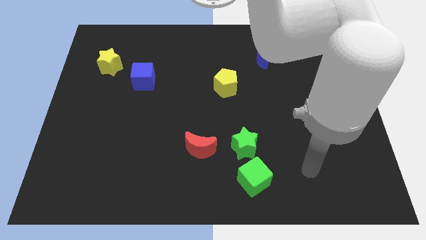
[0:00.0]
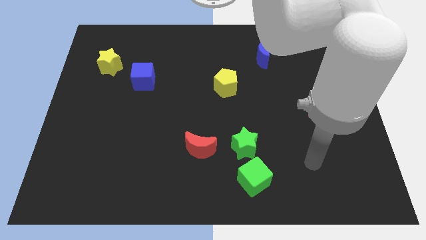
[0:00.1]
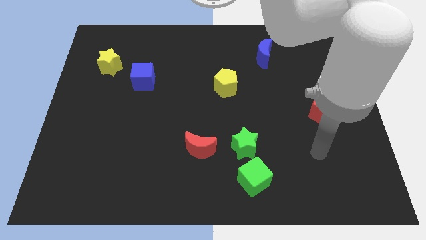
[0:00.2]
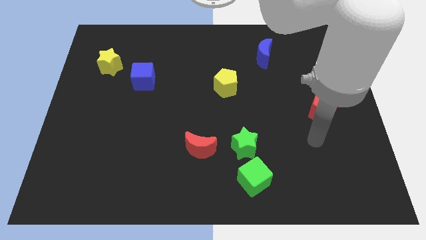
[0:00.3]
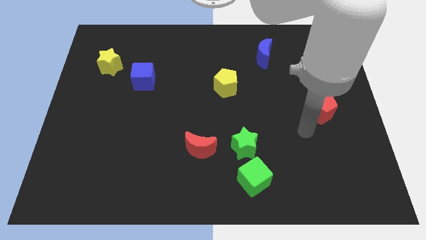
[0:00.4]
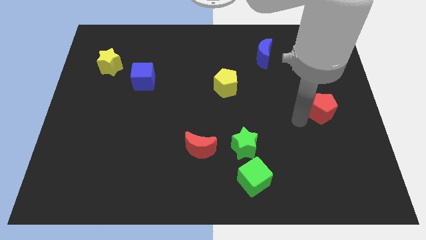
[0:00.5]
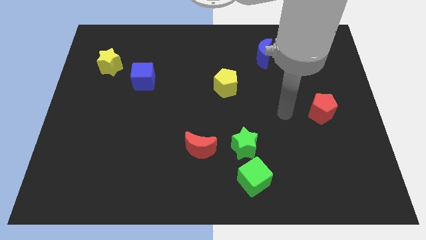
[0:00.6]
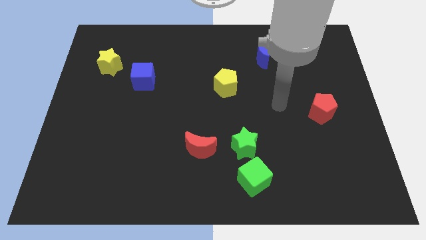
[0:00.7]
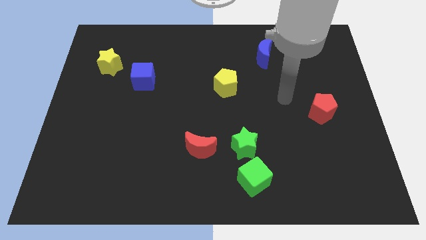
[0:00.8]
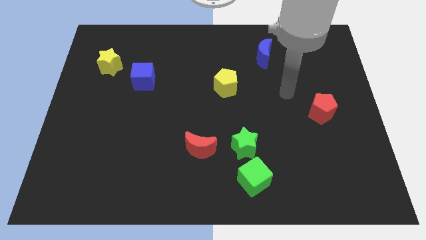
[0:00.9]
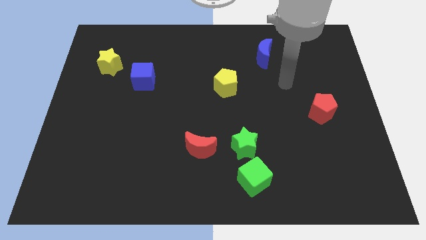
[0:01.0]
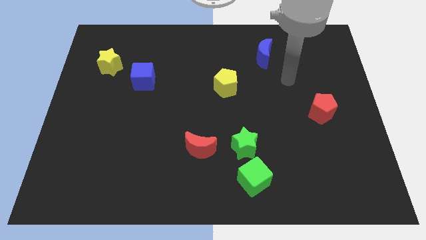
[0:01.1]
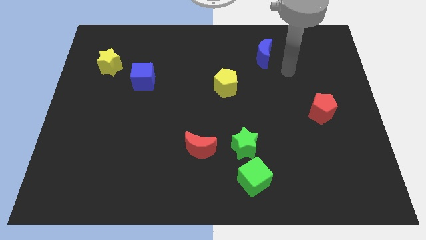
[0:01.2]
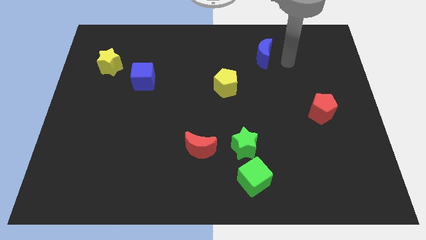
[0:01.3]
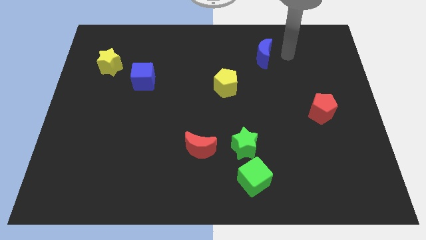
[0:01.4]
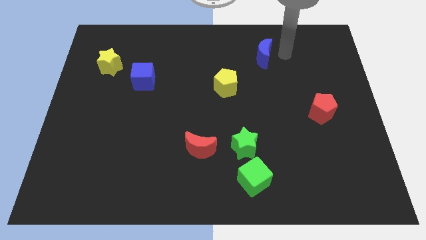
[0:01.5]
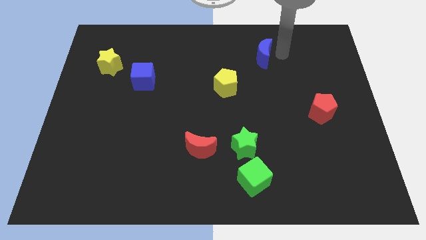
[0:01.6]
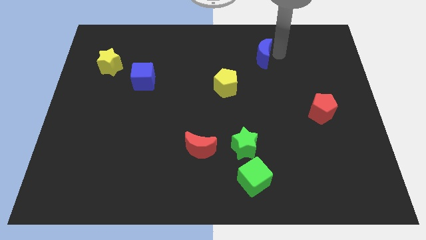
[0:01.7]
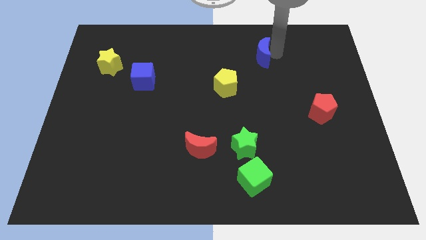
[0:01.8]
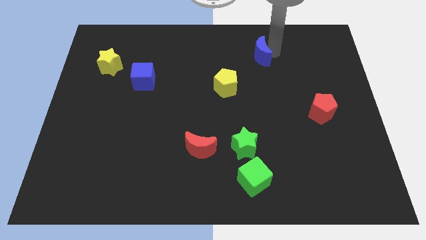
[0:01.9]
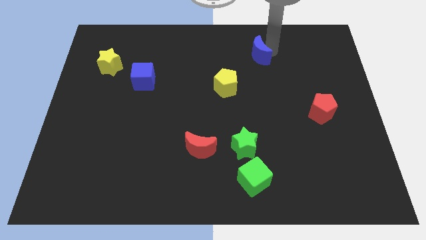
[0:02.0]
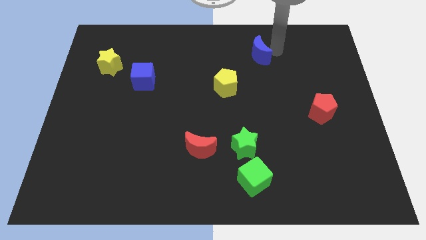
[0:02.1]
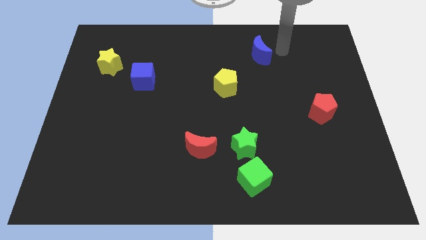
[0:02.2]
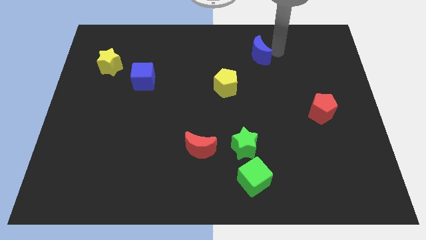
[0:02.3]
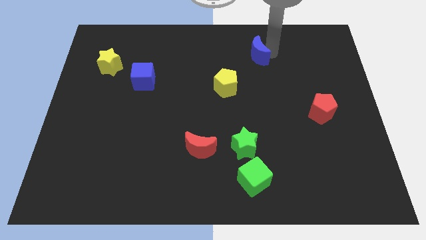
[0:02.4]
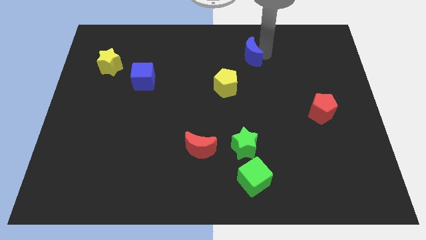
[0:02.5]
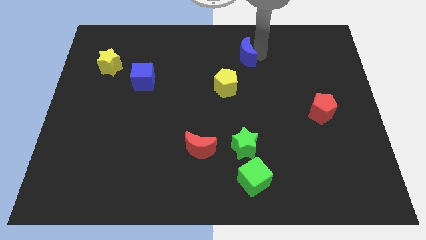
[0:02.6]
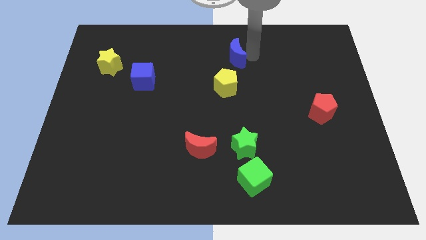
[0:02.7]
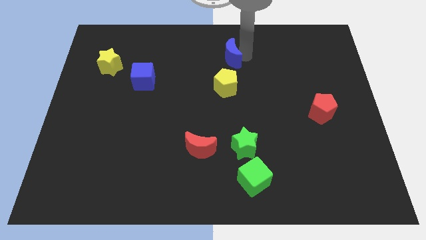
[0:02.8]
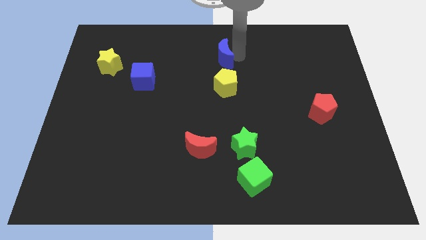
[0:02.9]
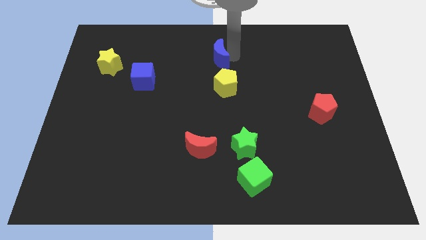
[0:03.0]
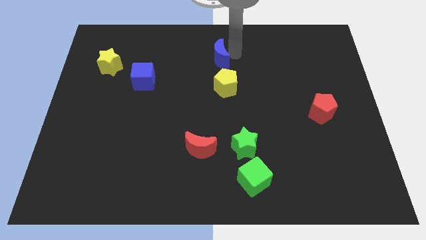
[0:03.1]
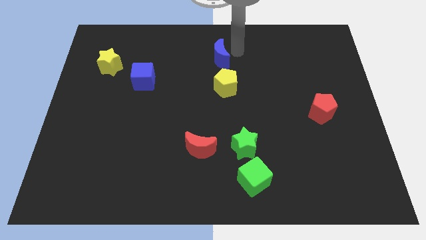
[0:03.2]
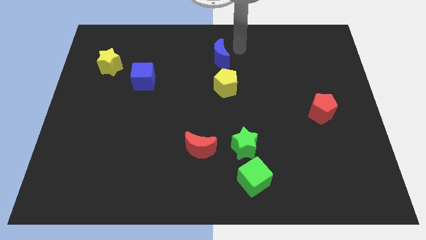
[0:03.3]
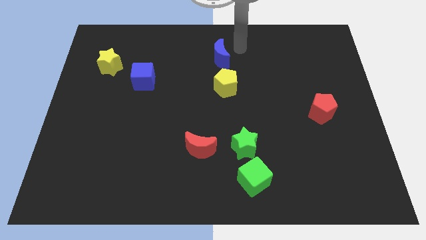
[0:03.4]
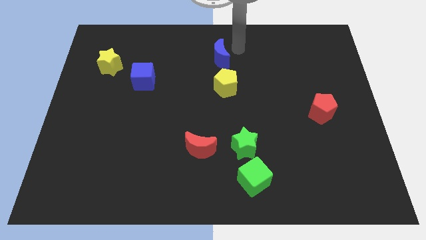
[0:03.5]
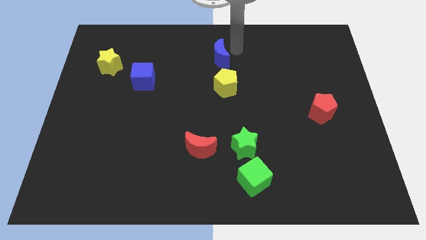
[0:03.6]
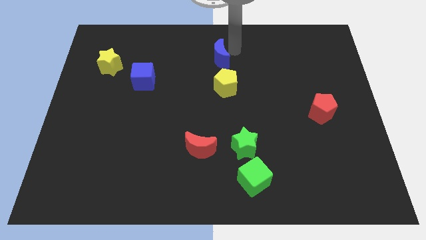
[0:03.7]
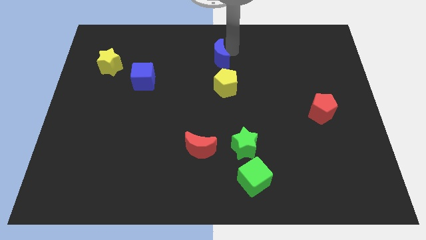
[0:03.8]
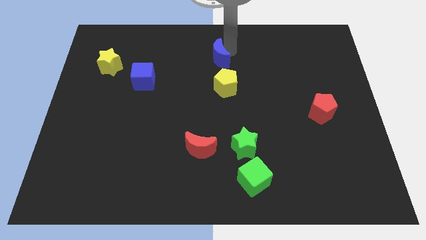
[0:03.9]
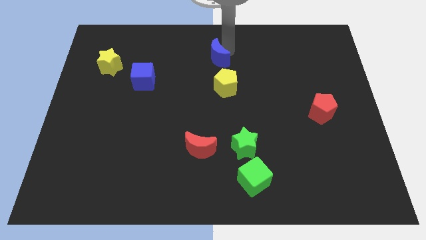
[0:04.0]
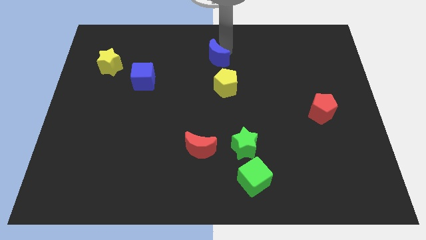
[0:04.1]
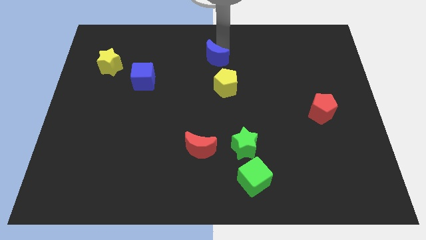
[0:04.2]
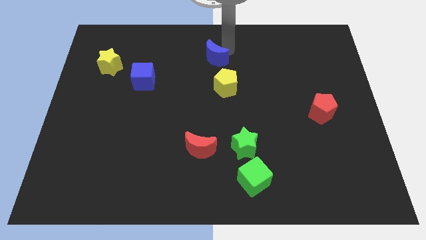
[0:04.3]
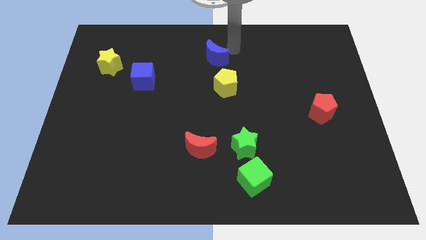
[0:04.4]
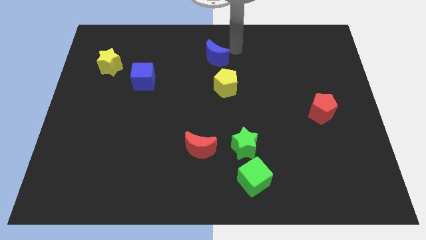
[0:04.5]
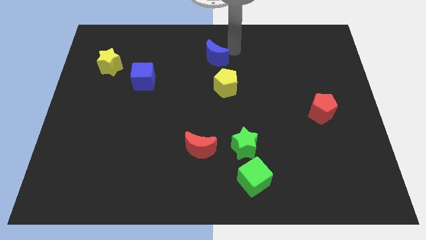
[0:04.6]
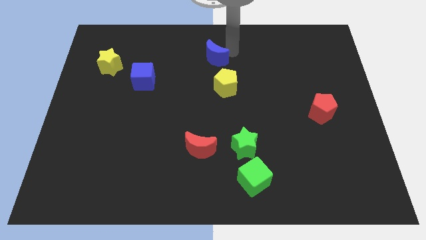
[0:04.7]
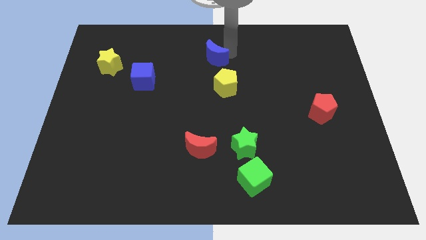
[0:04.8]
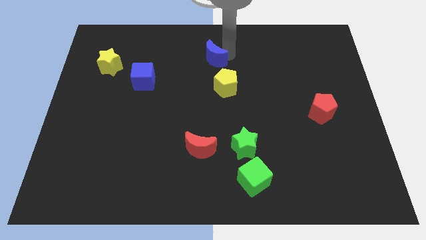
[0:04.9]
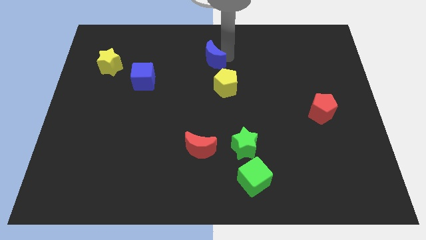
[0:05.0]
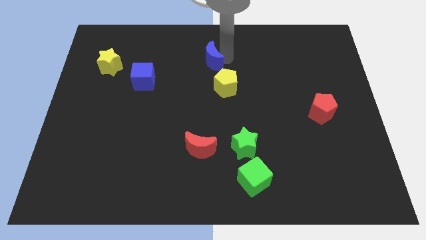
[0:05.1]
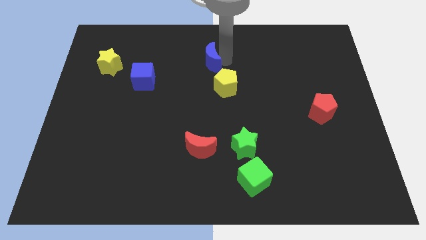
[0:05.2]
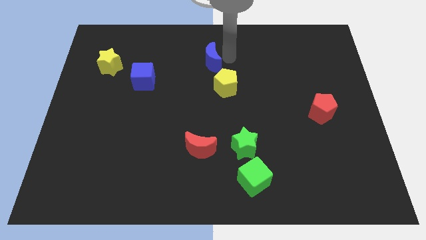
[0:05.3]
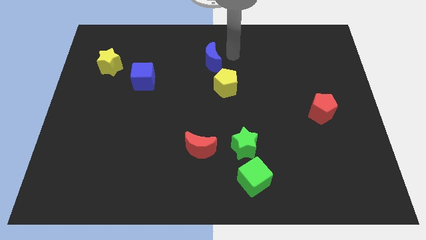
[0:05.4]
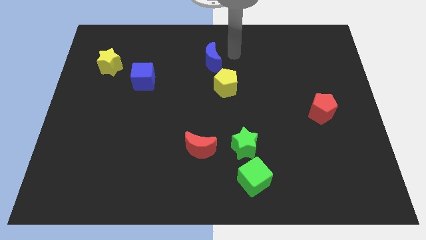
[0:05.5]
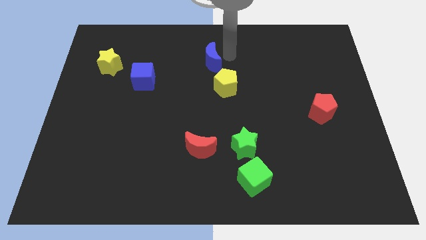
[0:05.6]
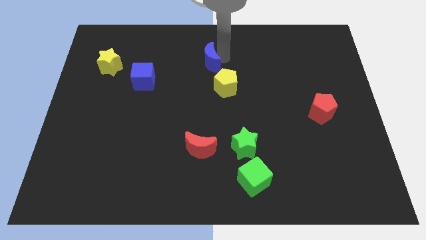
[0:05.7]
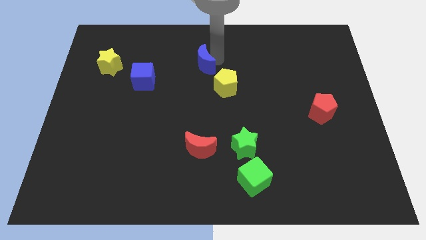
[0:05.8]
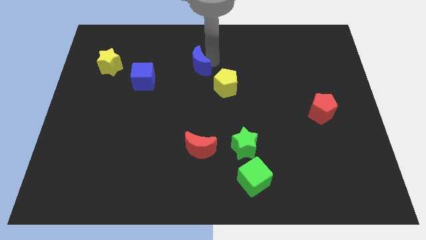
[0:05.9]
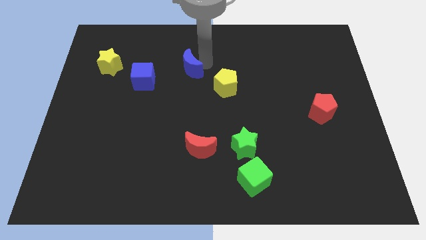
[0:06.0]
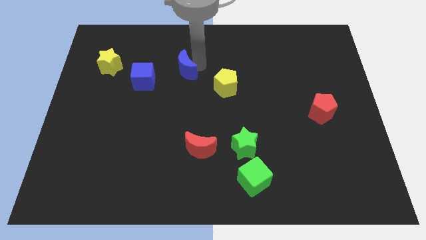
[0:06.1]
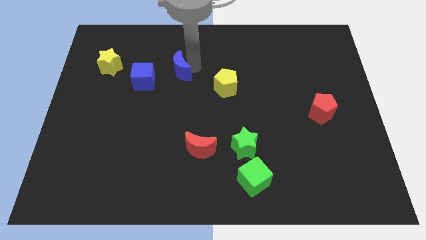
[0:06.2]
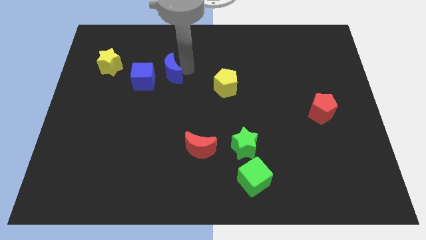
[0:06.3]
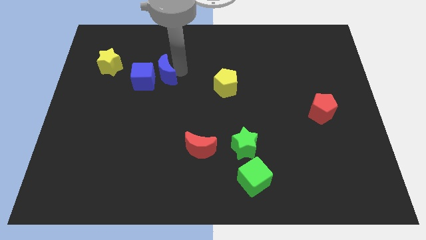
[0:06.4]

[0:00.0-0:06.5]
push the blue moon to the blue cube
